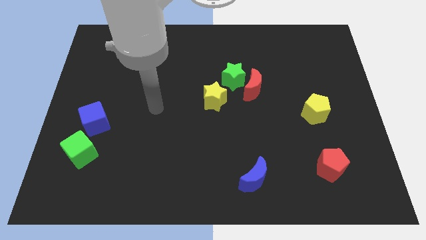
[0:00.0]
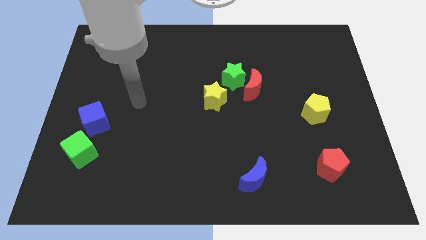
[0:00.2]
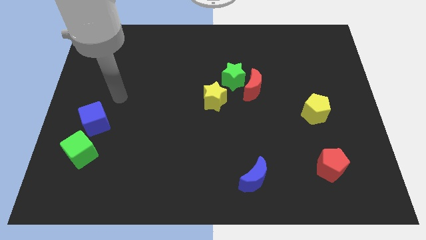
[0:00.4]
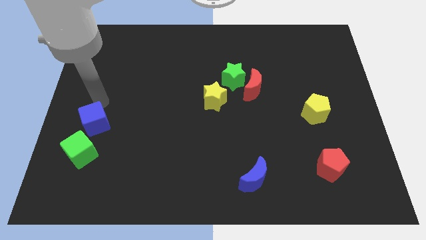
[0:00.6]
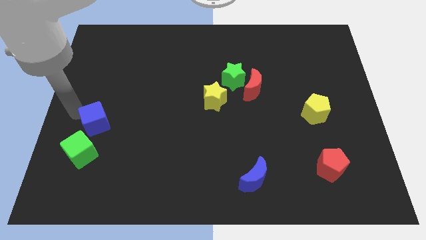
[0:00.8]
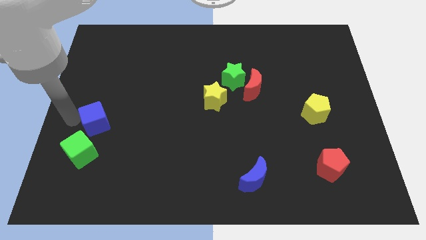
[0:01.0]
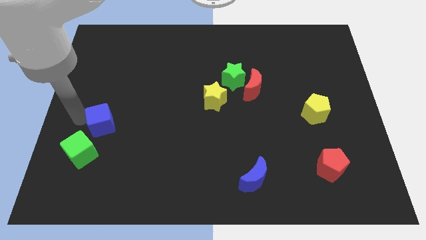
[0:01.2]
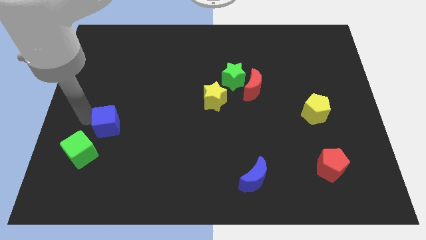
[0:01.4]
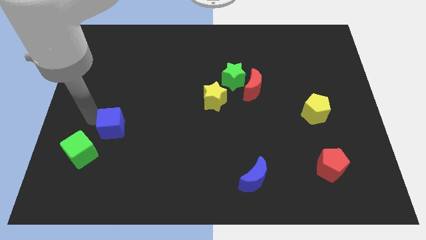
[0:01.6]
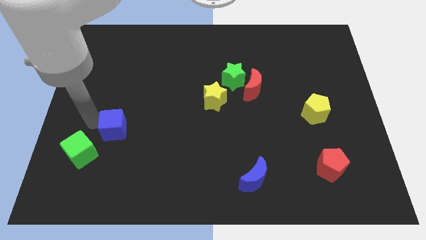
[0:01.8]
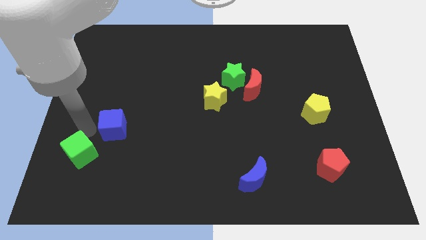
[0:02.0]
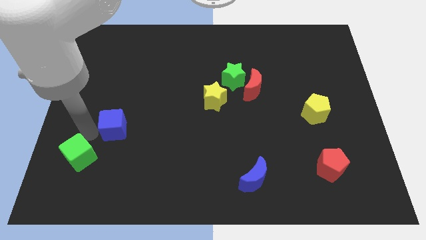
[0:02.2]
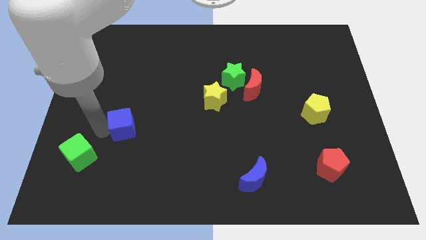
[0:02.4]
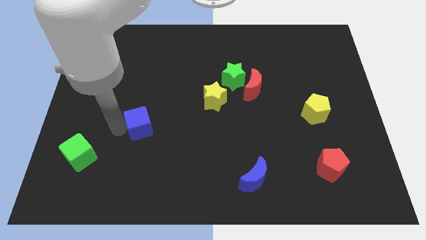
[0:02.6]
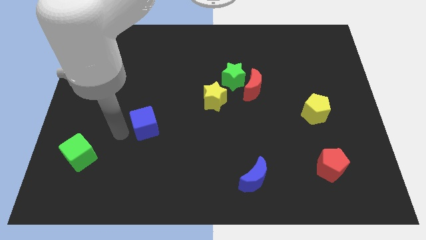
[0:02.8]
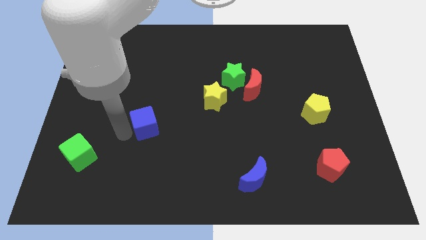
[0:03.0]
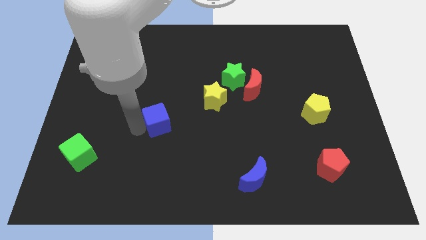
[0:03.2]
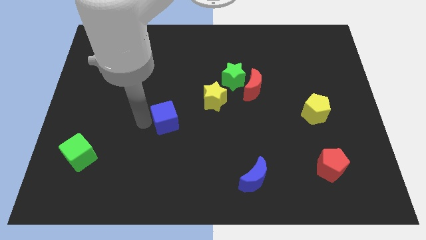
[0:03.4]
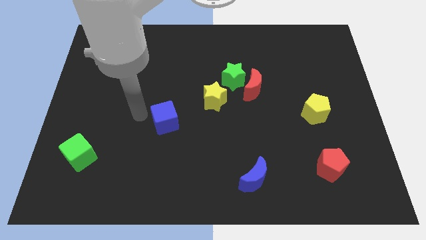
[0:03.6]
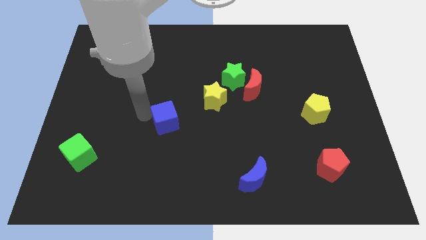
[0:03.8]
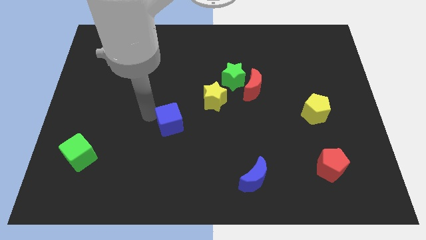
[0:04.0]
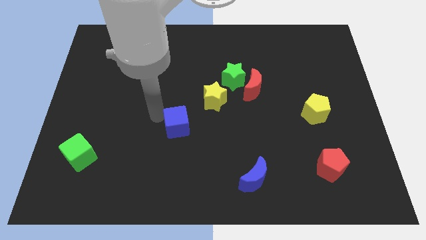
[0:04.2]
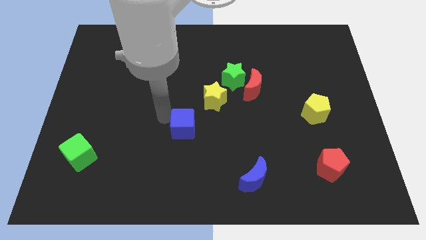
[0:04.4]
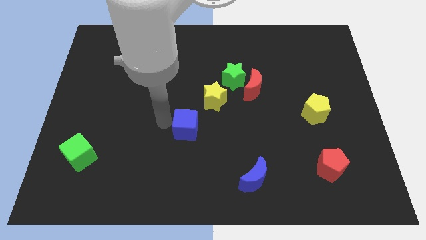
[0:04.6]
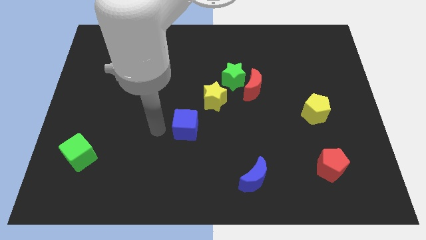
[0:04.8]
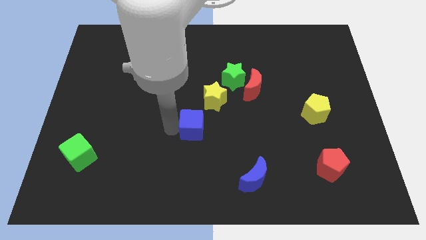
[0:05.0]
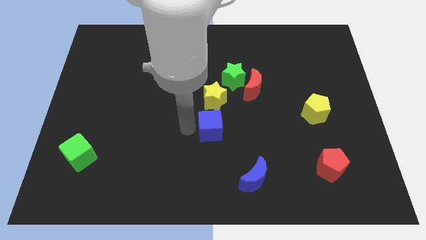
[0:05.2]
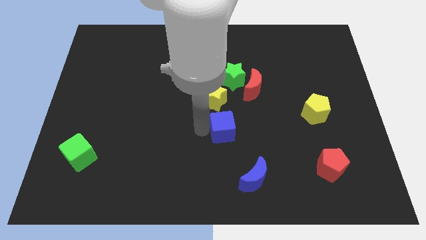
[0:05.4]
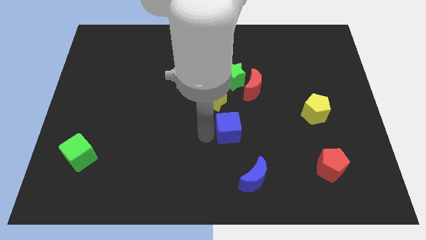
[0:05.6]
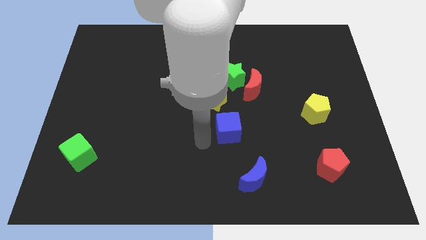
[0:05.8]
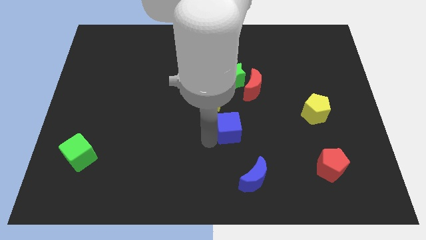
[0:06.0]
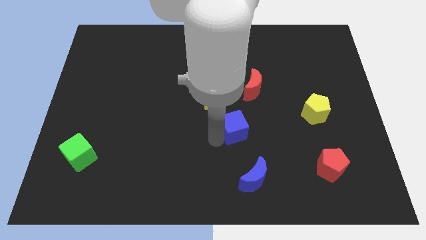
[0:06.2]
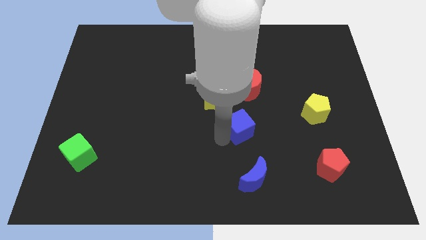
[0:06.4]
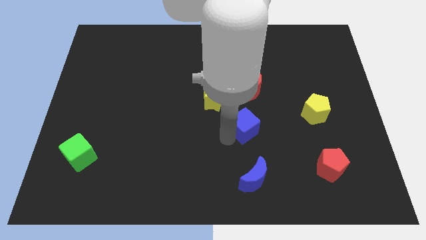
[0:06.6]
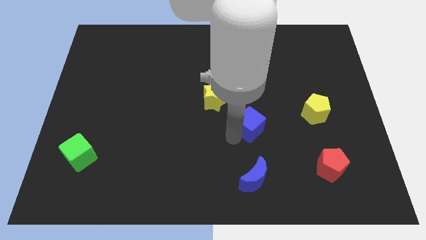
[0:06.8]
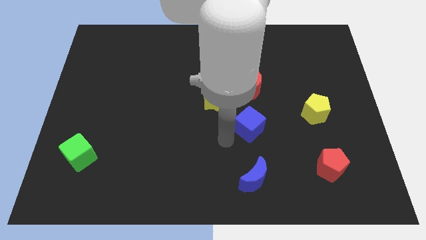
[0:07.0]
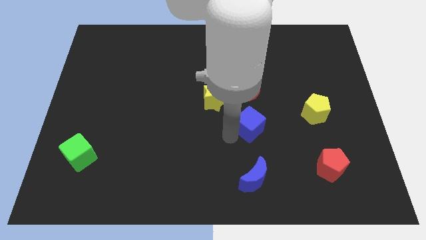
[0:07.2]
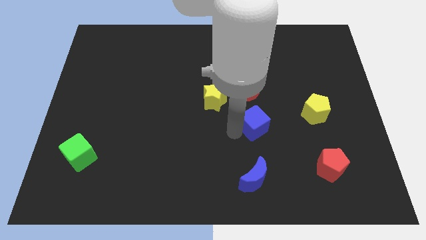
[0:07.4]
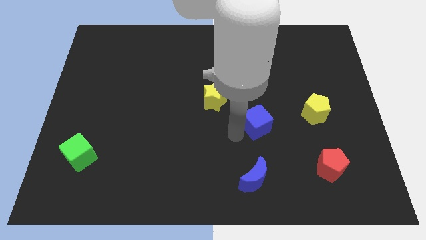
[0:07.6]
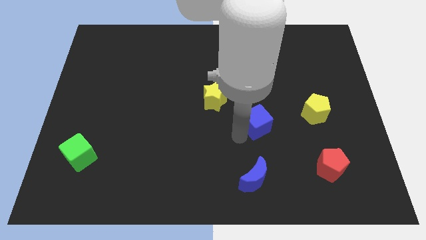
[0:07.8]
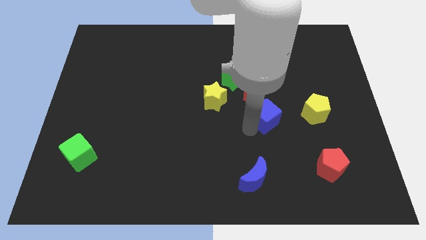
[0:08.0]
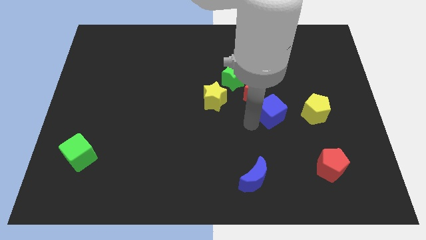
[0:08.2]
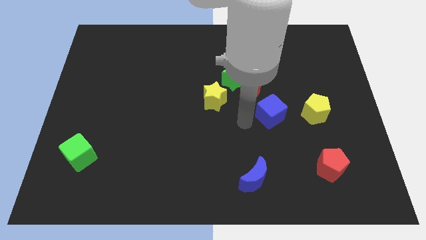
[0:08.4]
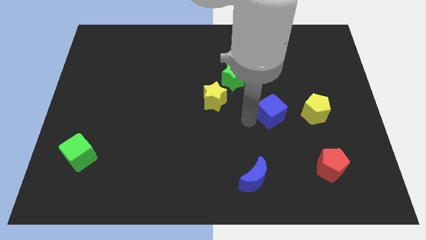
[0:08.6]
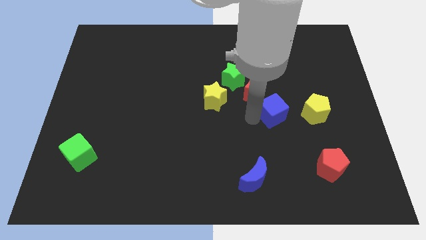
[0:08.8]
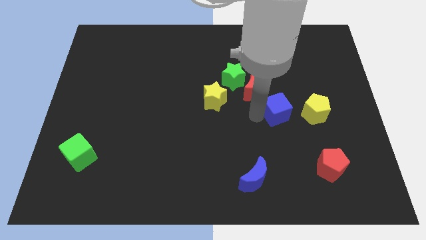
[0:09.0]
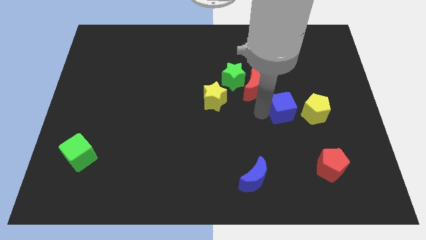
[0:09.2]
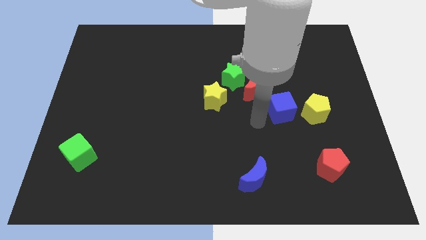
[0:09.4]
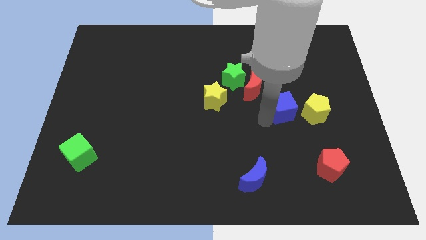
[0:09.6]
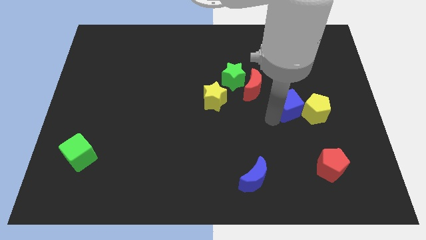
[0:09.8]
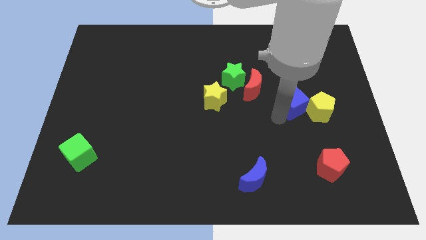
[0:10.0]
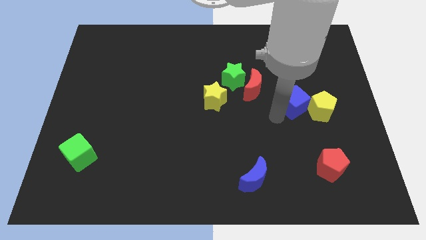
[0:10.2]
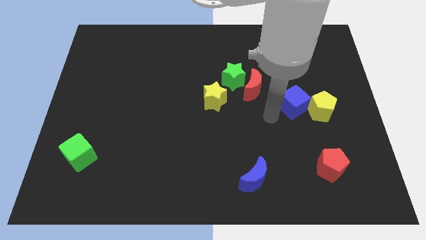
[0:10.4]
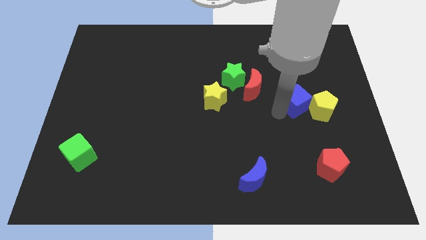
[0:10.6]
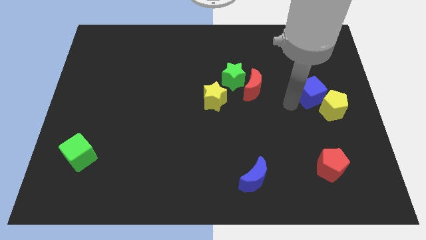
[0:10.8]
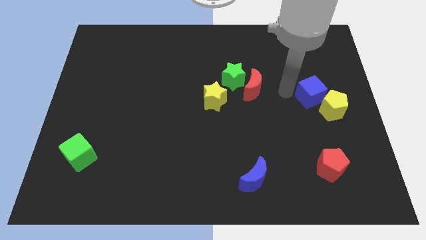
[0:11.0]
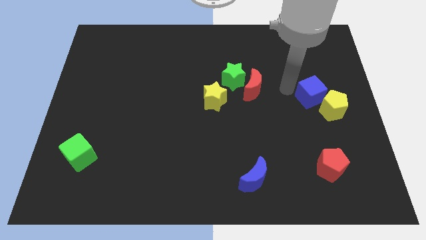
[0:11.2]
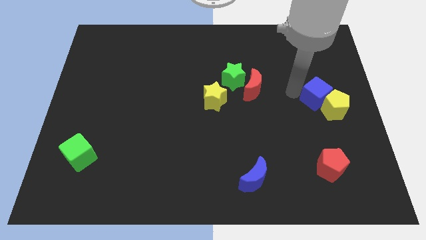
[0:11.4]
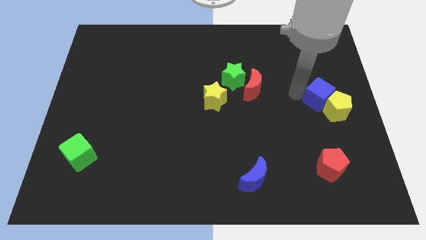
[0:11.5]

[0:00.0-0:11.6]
slide the blue cube to the center right

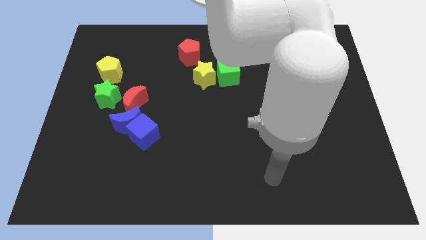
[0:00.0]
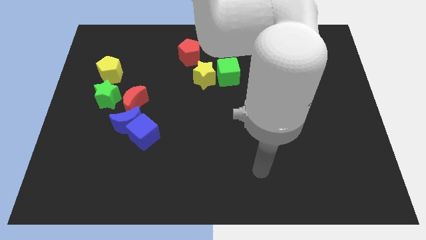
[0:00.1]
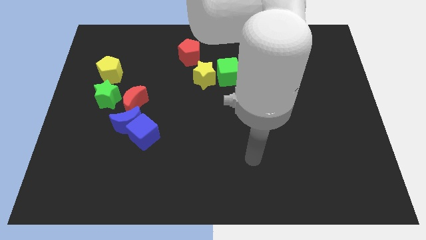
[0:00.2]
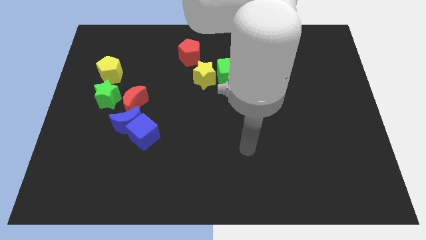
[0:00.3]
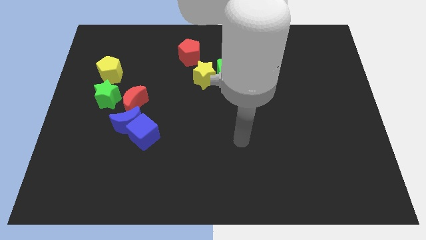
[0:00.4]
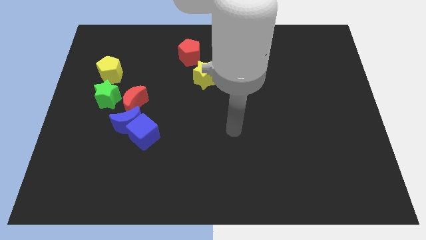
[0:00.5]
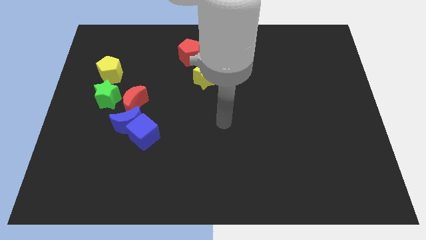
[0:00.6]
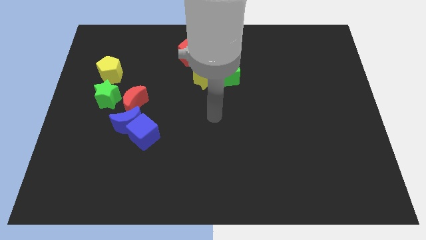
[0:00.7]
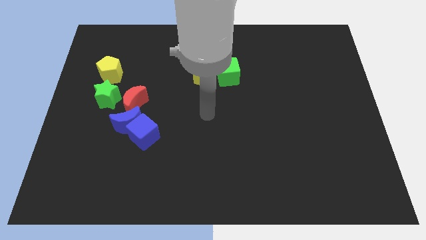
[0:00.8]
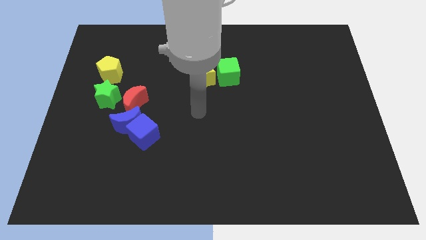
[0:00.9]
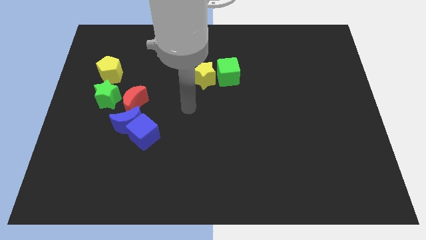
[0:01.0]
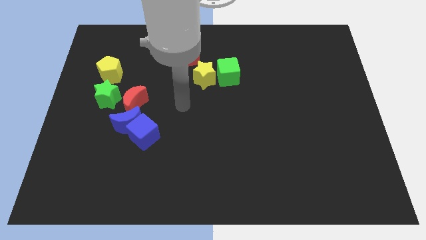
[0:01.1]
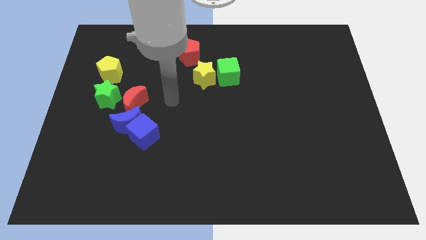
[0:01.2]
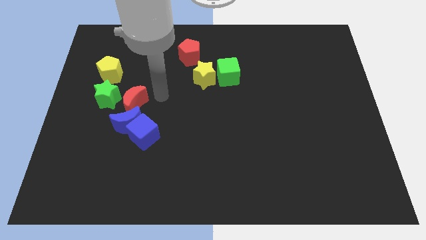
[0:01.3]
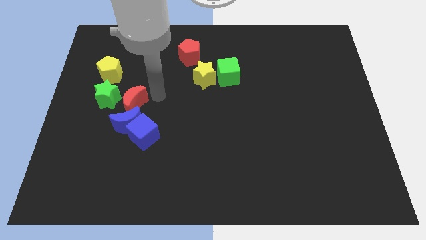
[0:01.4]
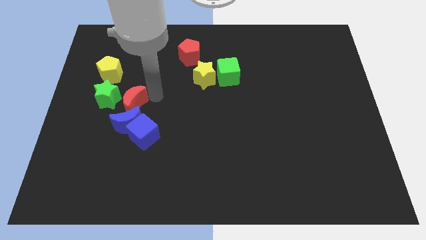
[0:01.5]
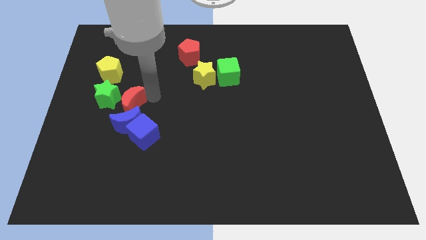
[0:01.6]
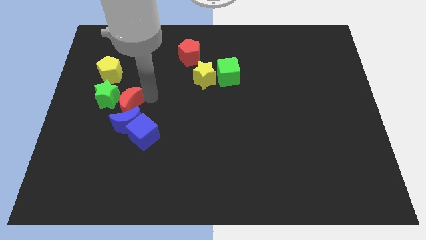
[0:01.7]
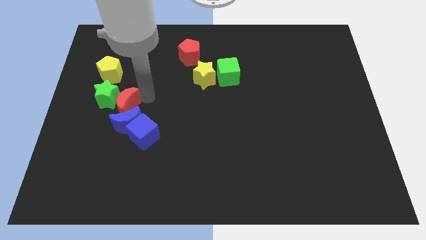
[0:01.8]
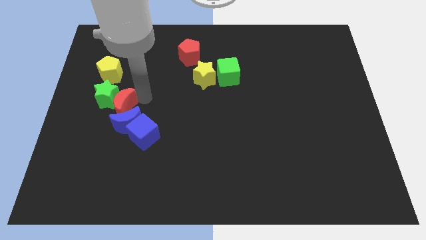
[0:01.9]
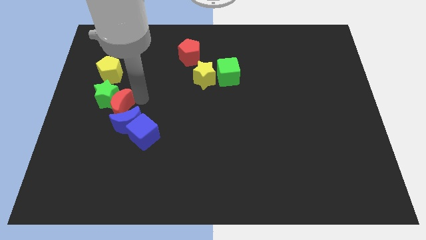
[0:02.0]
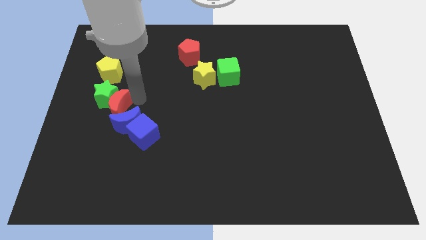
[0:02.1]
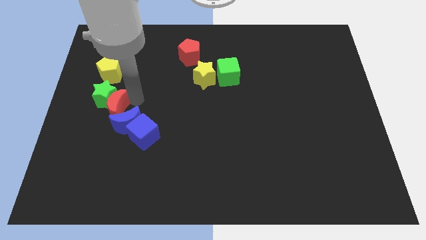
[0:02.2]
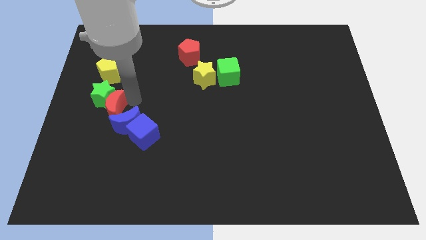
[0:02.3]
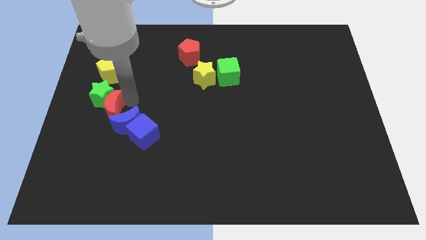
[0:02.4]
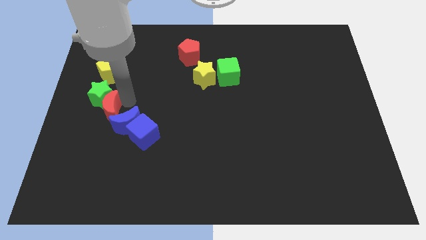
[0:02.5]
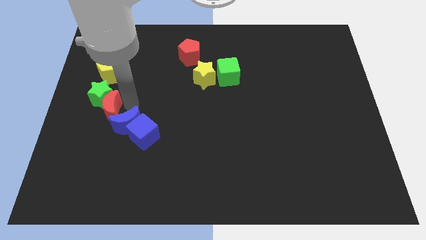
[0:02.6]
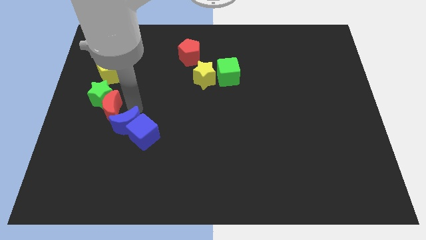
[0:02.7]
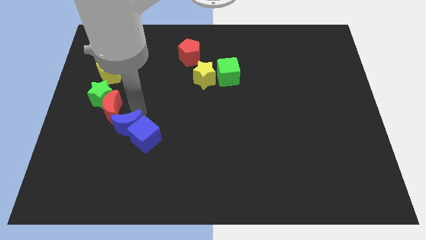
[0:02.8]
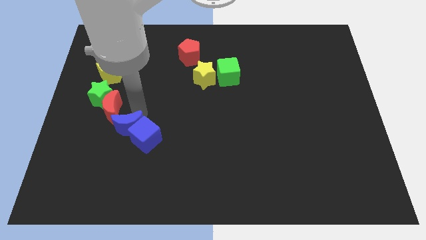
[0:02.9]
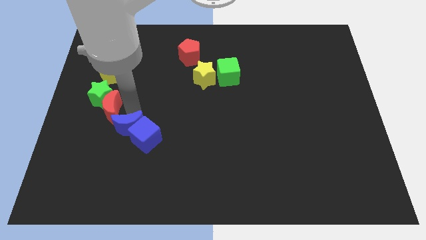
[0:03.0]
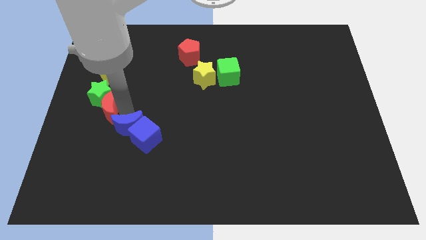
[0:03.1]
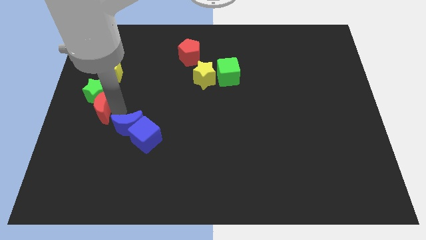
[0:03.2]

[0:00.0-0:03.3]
move the red moon to the left side of the board
